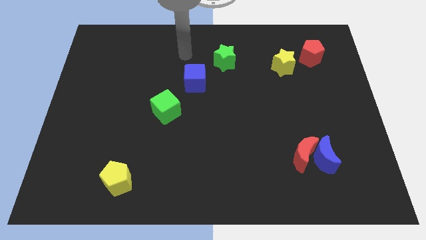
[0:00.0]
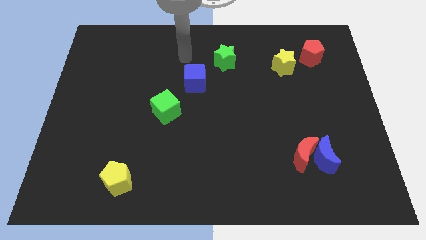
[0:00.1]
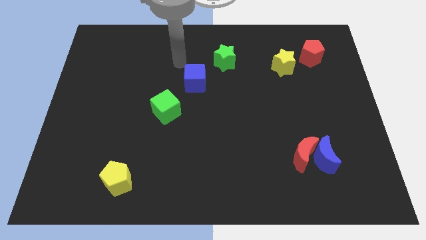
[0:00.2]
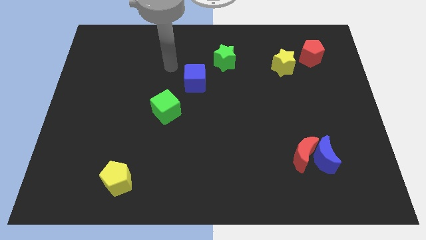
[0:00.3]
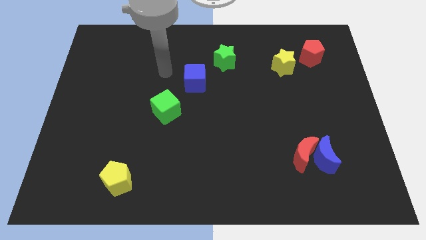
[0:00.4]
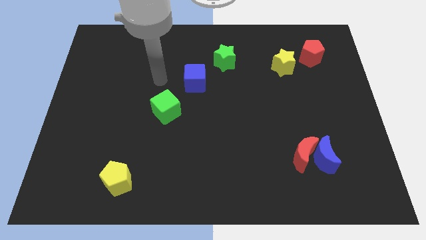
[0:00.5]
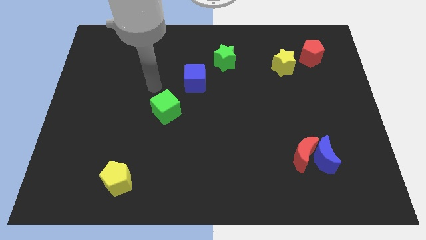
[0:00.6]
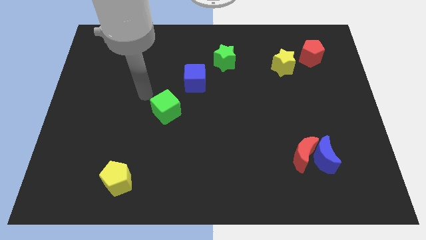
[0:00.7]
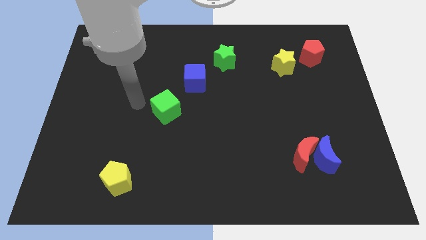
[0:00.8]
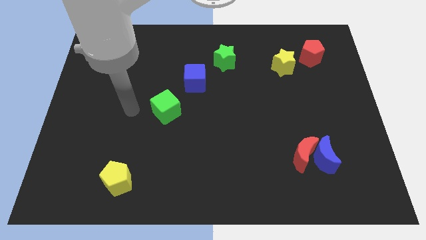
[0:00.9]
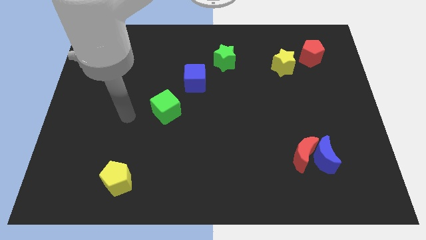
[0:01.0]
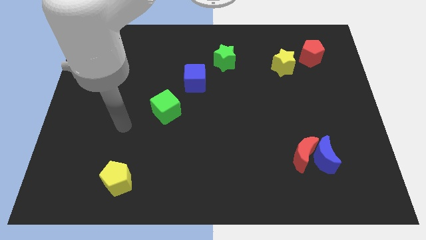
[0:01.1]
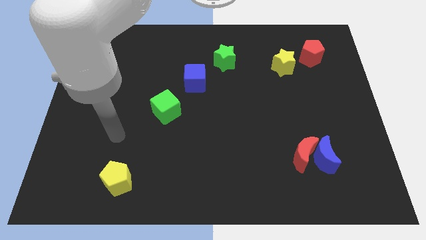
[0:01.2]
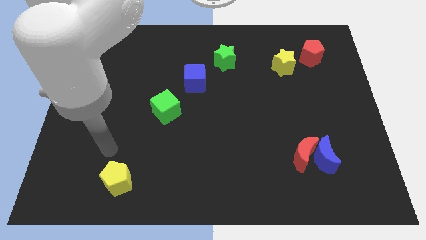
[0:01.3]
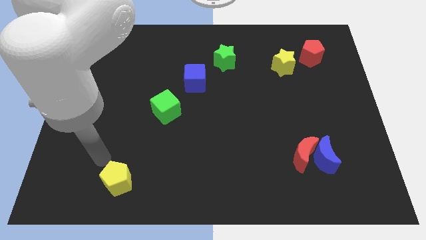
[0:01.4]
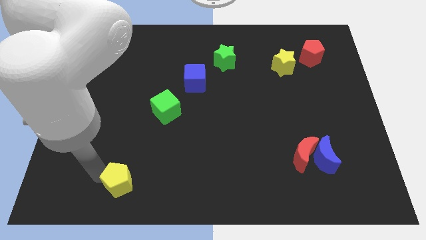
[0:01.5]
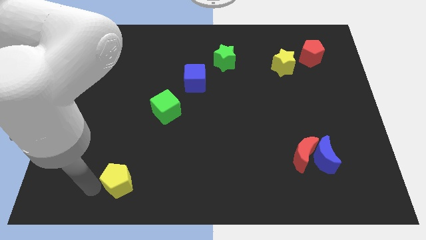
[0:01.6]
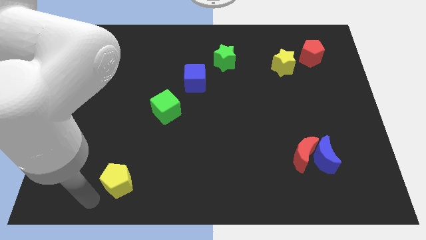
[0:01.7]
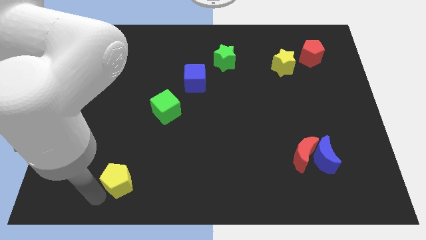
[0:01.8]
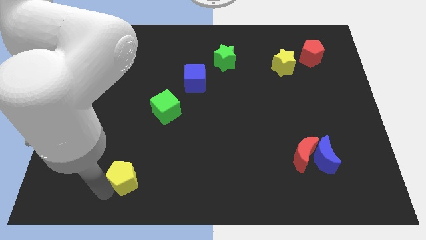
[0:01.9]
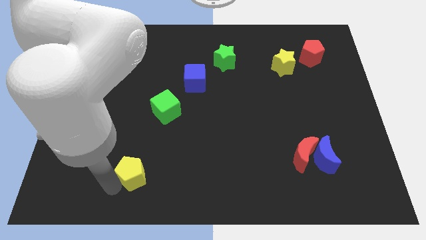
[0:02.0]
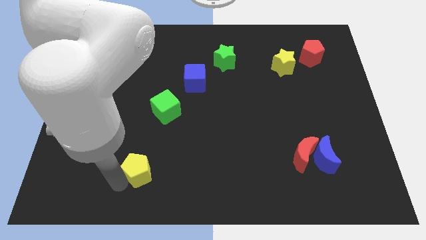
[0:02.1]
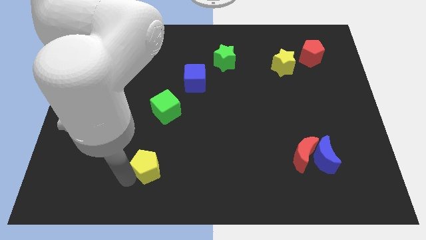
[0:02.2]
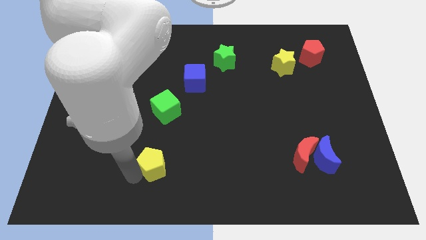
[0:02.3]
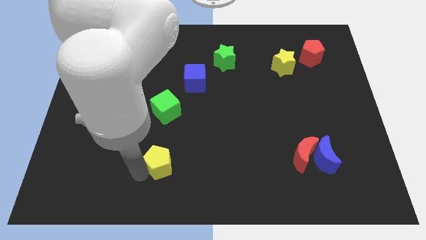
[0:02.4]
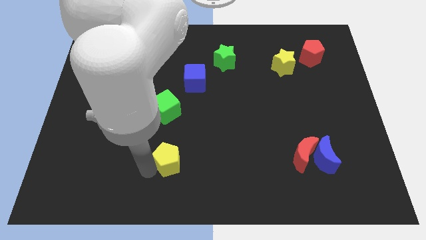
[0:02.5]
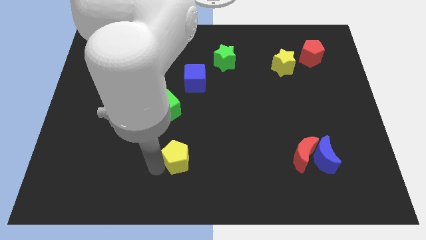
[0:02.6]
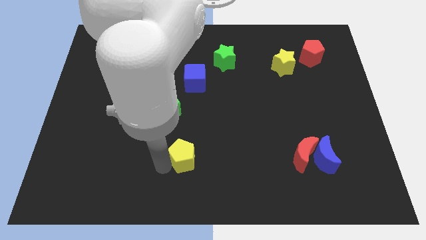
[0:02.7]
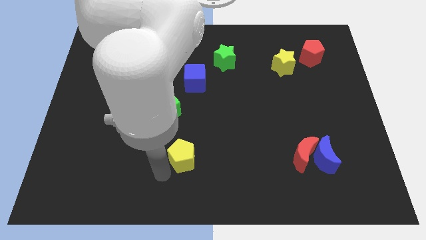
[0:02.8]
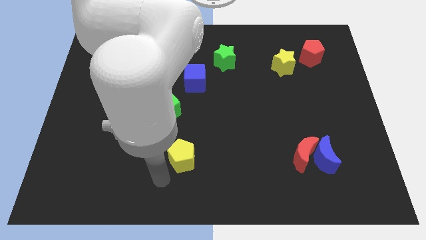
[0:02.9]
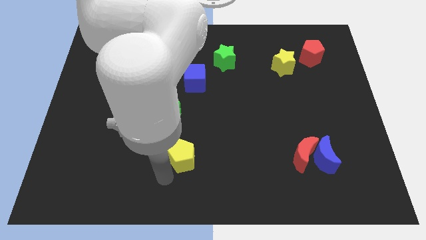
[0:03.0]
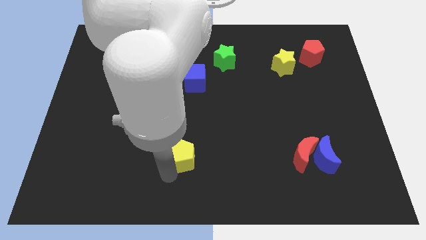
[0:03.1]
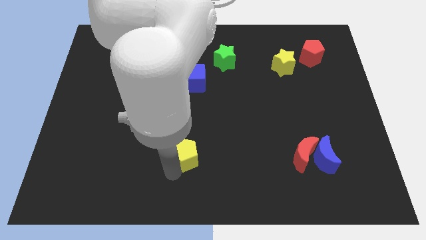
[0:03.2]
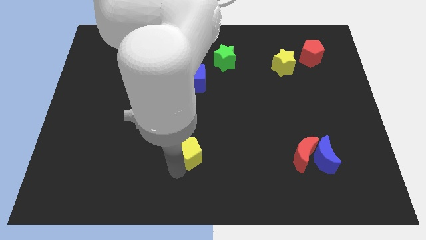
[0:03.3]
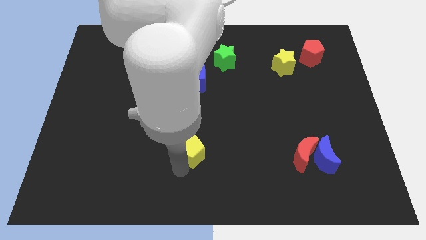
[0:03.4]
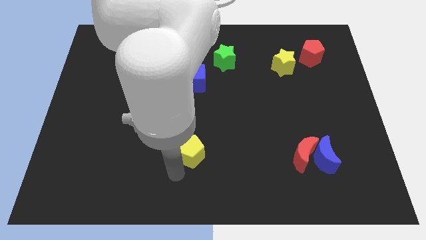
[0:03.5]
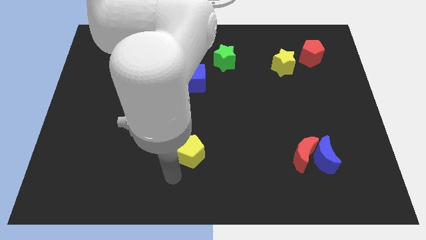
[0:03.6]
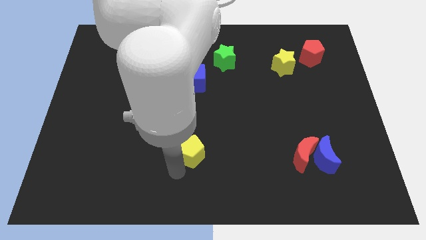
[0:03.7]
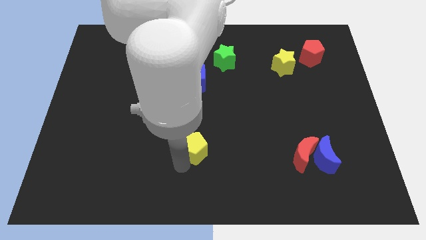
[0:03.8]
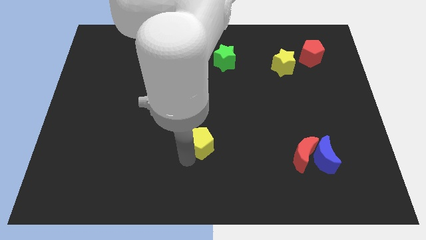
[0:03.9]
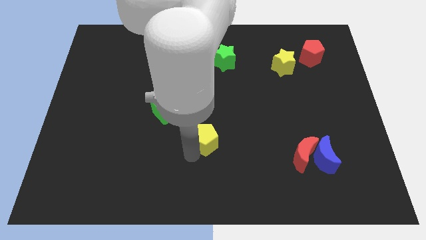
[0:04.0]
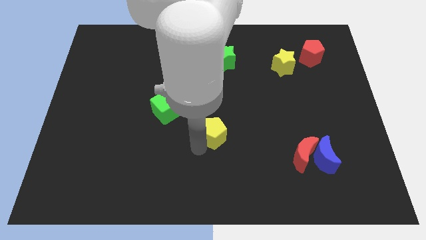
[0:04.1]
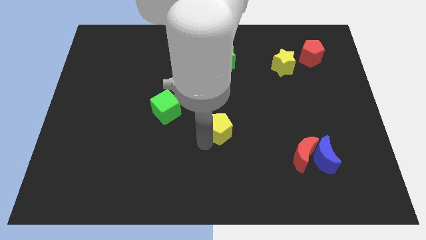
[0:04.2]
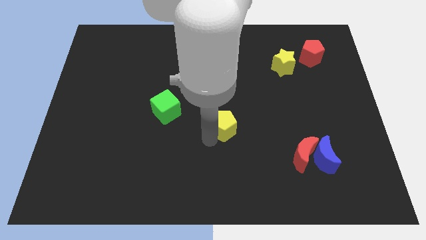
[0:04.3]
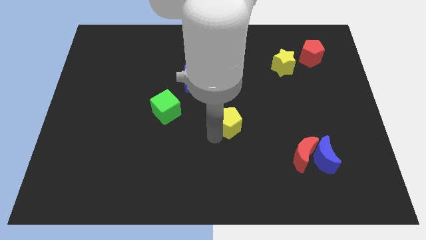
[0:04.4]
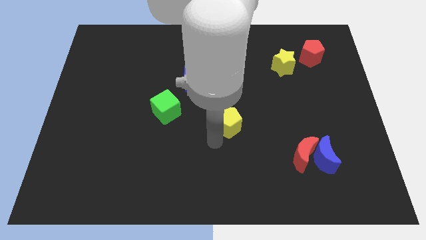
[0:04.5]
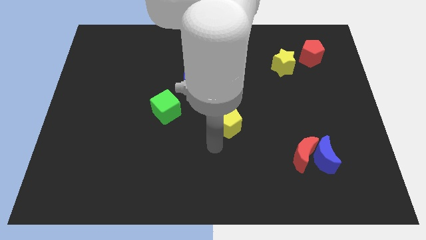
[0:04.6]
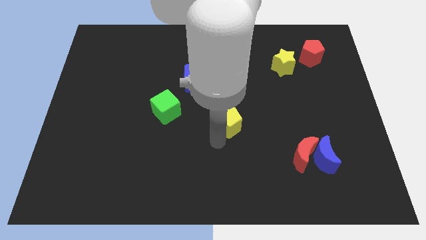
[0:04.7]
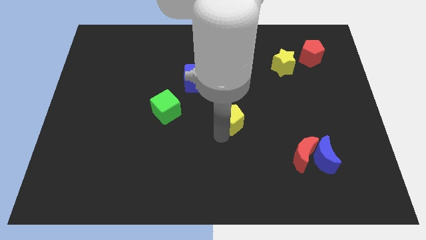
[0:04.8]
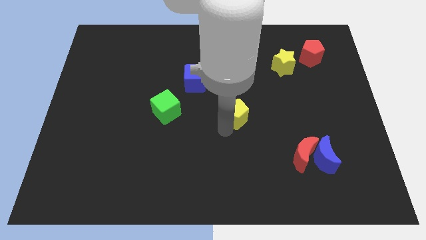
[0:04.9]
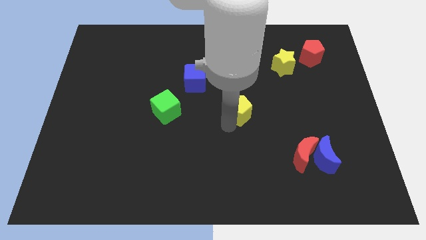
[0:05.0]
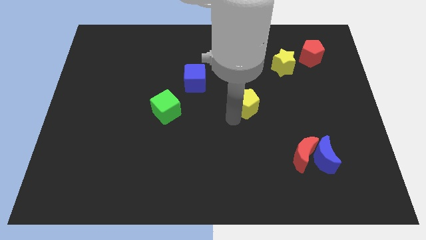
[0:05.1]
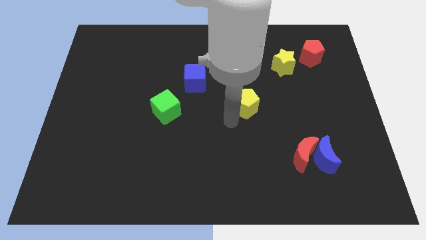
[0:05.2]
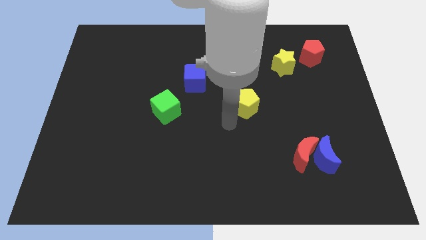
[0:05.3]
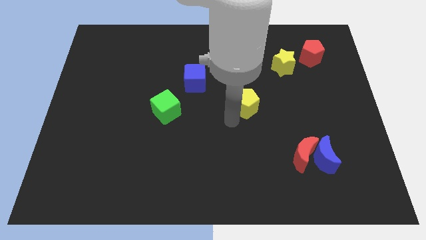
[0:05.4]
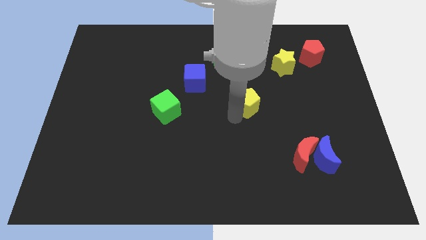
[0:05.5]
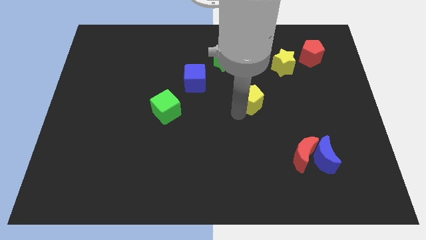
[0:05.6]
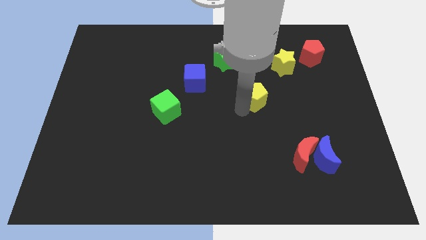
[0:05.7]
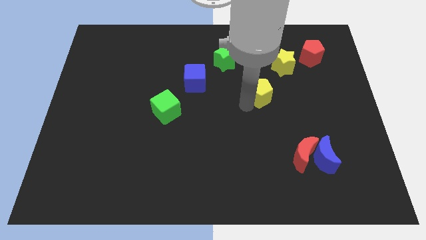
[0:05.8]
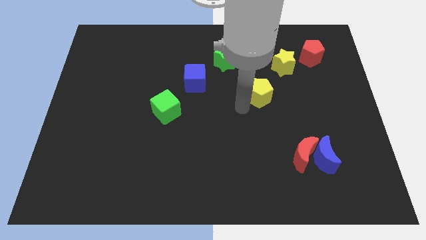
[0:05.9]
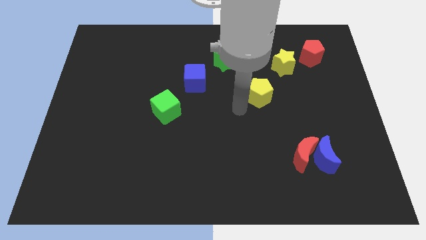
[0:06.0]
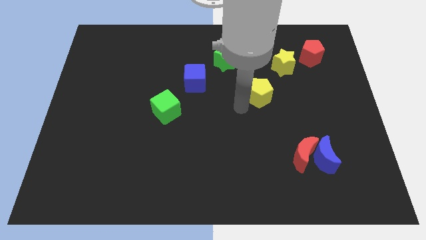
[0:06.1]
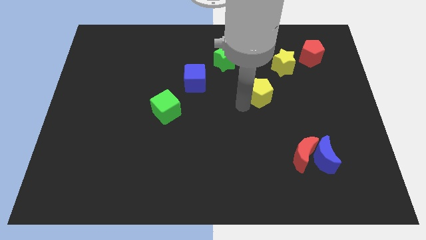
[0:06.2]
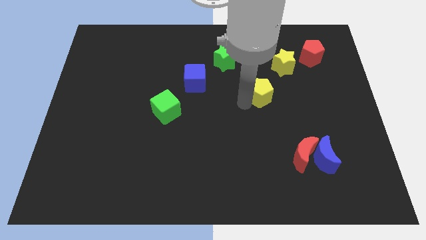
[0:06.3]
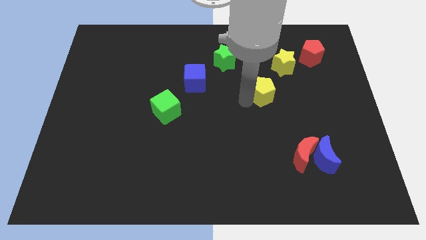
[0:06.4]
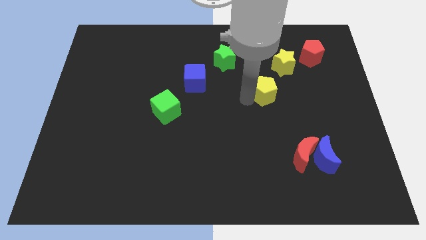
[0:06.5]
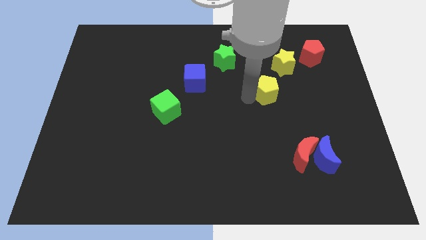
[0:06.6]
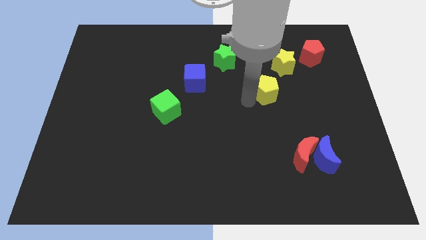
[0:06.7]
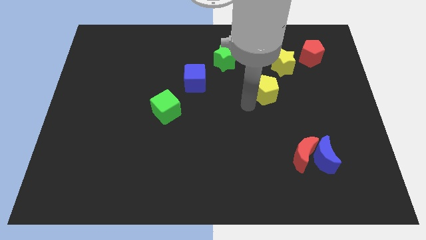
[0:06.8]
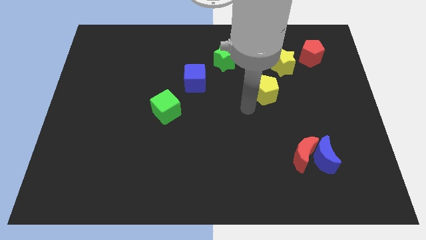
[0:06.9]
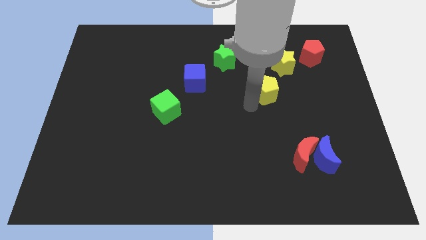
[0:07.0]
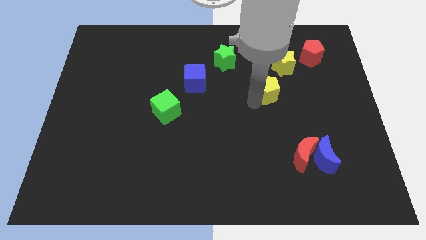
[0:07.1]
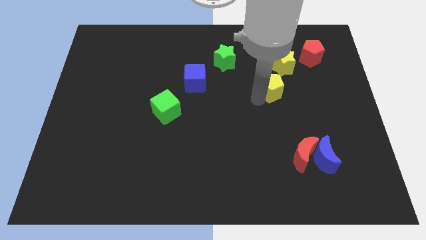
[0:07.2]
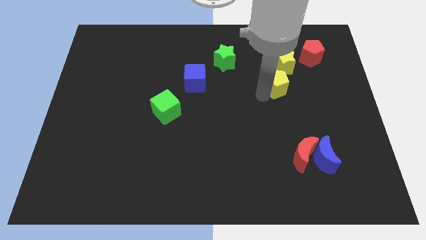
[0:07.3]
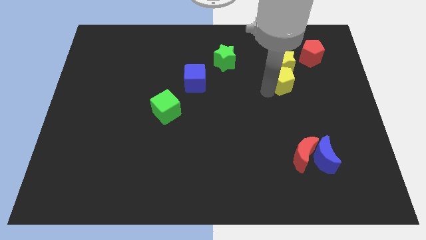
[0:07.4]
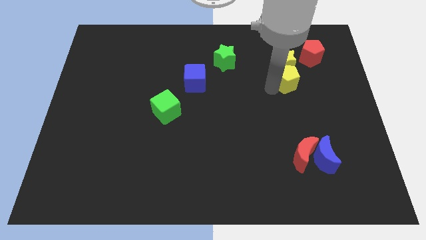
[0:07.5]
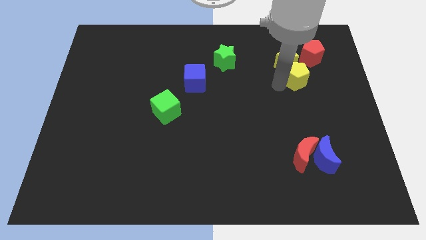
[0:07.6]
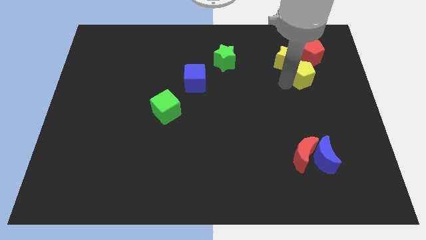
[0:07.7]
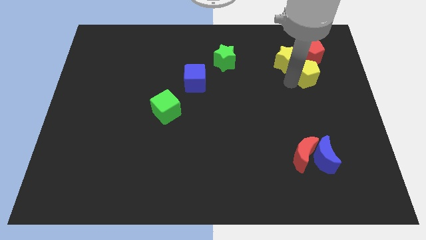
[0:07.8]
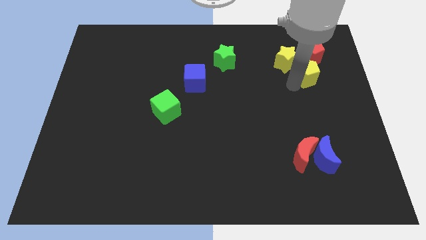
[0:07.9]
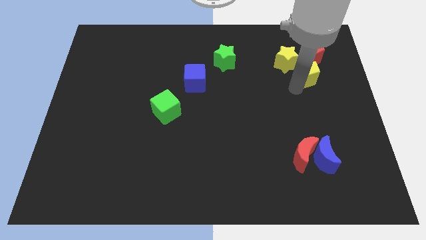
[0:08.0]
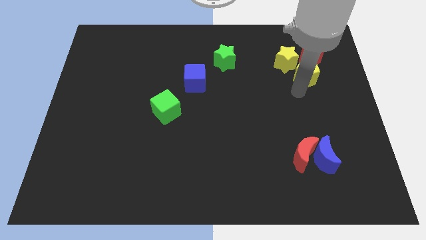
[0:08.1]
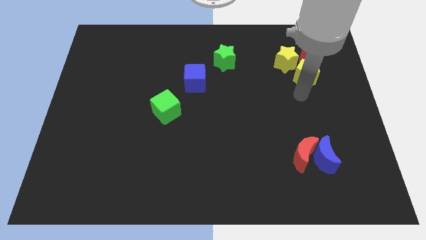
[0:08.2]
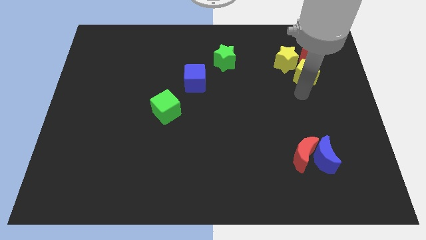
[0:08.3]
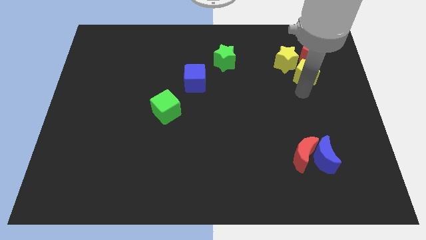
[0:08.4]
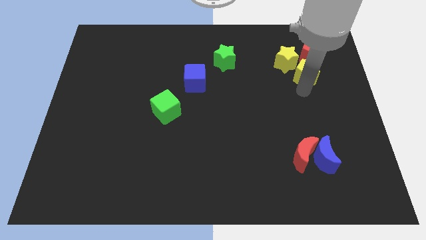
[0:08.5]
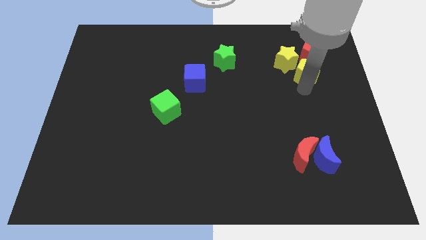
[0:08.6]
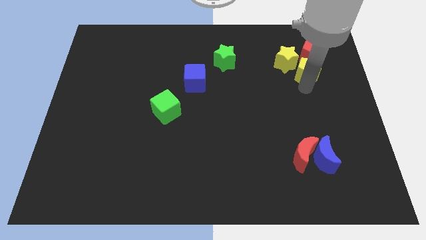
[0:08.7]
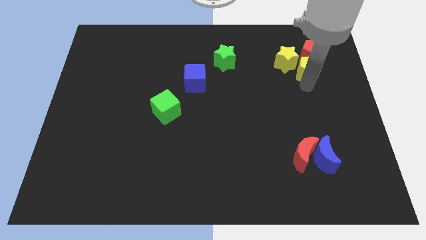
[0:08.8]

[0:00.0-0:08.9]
put the yellow pentagon to the red pentagon
